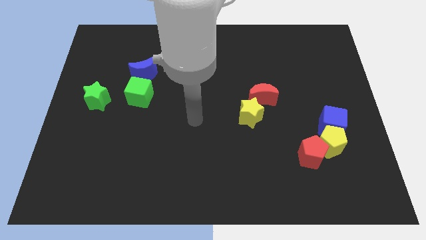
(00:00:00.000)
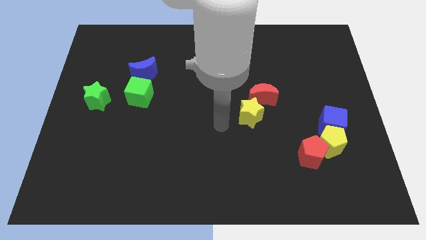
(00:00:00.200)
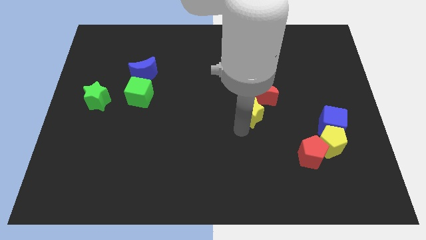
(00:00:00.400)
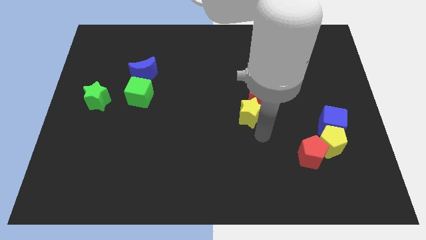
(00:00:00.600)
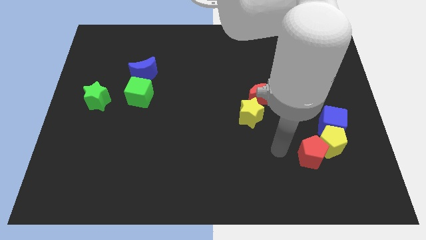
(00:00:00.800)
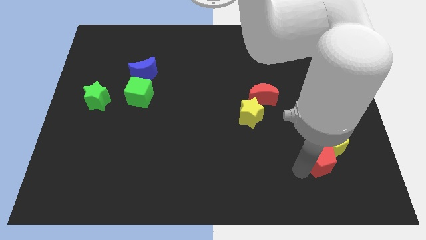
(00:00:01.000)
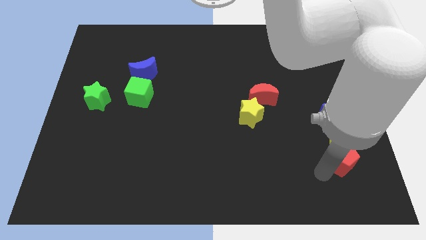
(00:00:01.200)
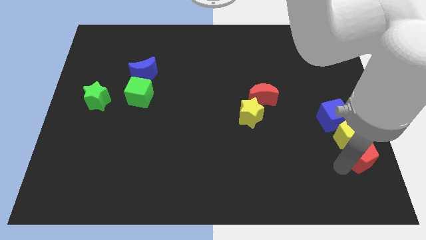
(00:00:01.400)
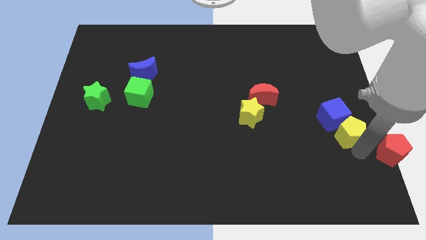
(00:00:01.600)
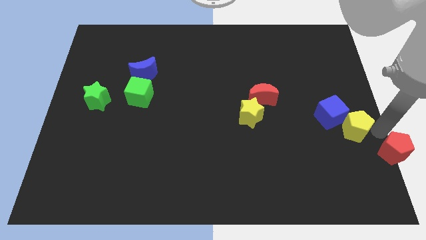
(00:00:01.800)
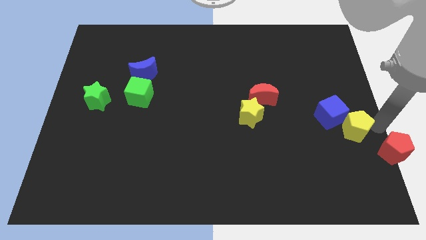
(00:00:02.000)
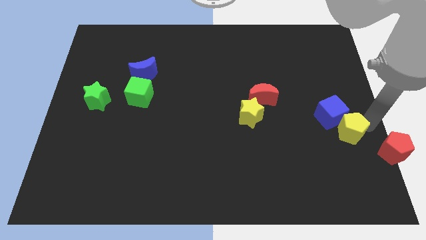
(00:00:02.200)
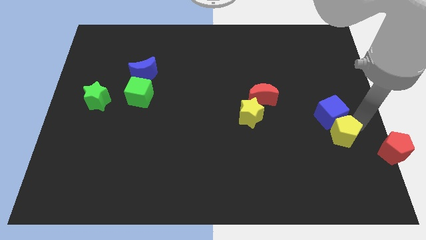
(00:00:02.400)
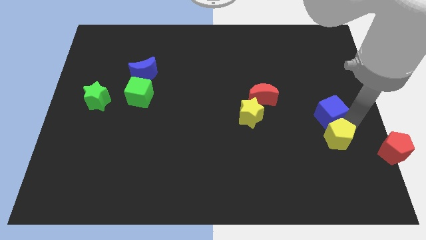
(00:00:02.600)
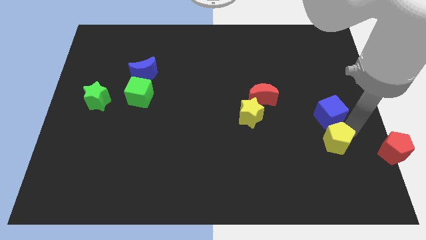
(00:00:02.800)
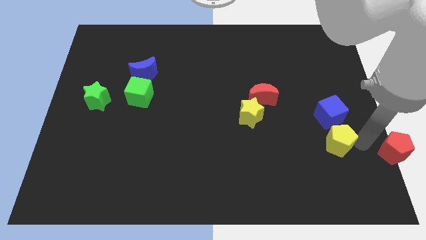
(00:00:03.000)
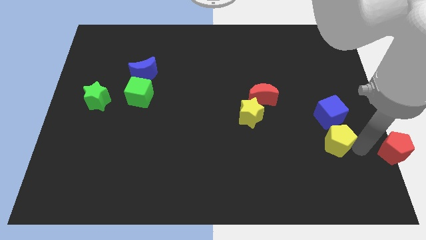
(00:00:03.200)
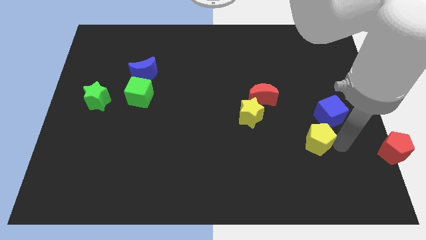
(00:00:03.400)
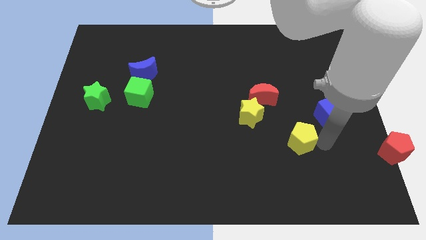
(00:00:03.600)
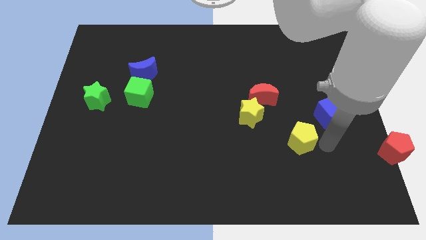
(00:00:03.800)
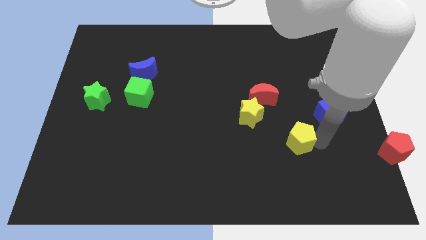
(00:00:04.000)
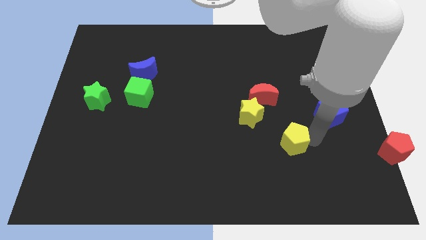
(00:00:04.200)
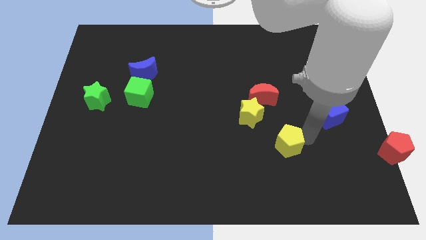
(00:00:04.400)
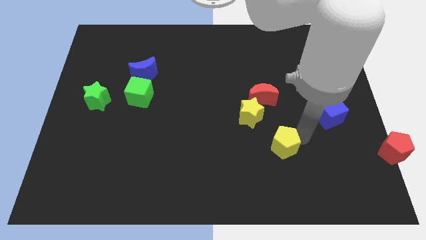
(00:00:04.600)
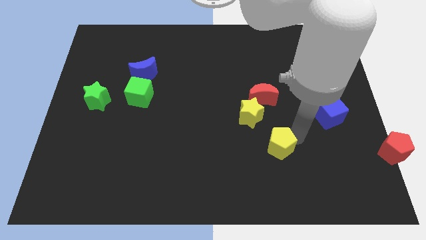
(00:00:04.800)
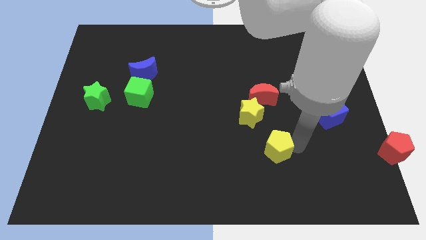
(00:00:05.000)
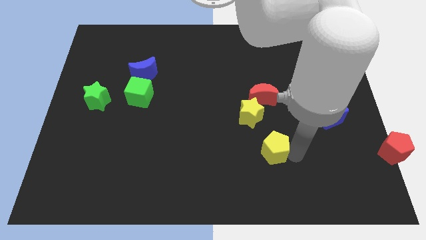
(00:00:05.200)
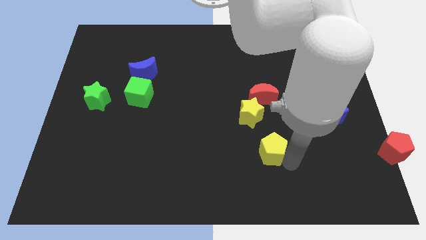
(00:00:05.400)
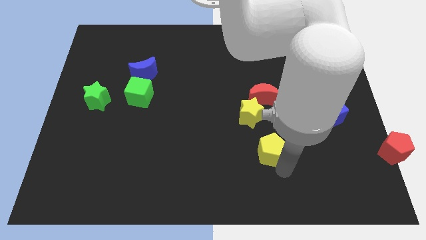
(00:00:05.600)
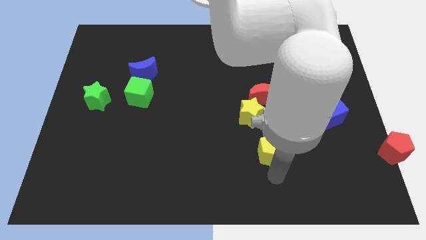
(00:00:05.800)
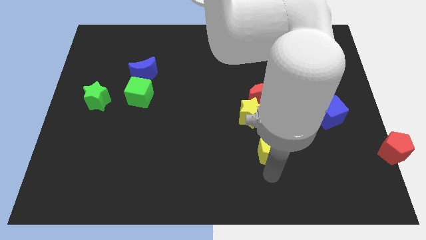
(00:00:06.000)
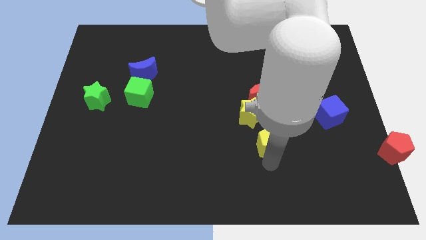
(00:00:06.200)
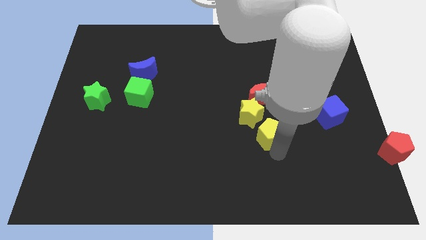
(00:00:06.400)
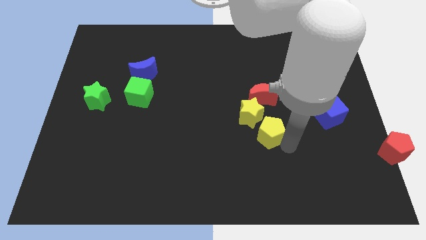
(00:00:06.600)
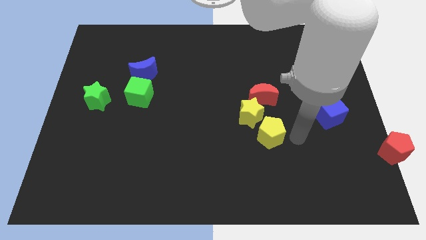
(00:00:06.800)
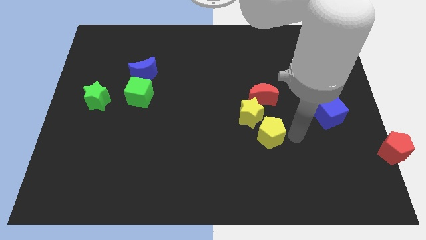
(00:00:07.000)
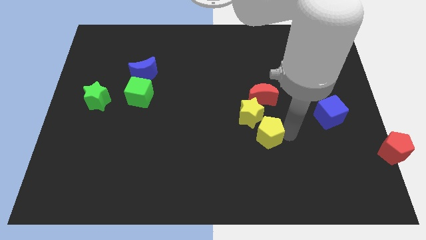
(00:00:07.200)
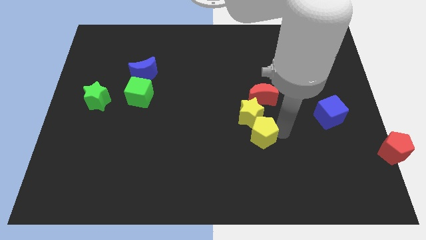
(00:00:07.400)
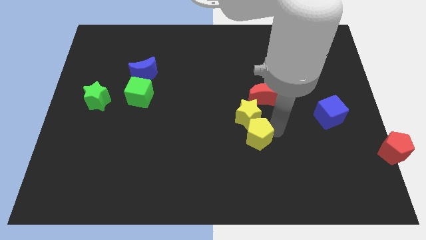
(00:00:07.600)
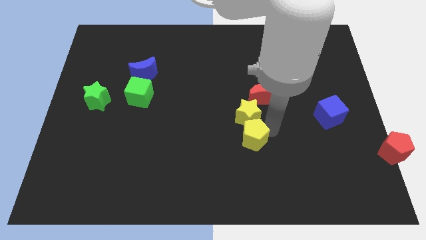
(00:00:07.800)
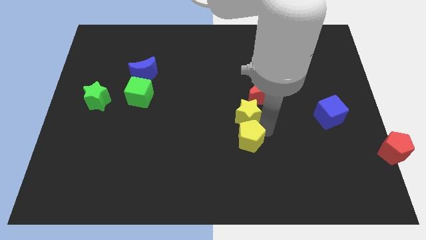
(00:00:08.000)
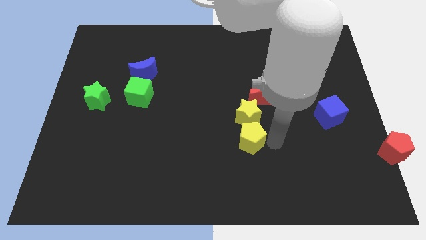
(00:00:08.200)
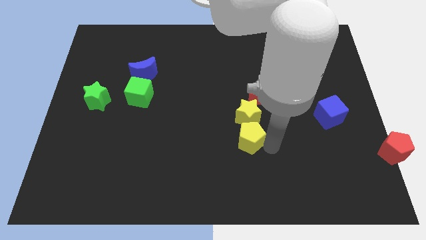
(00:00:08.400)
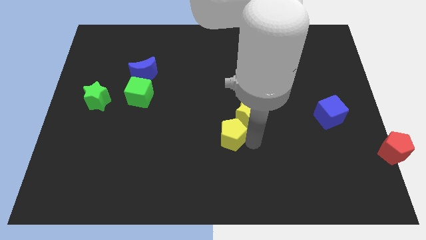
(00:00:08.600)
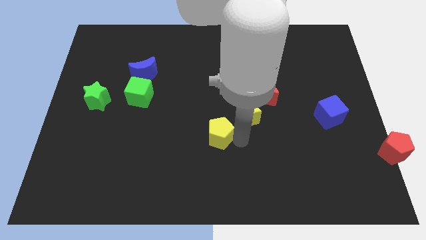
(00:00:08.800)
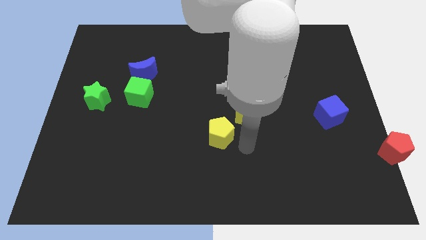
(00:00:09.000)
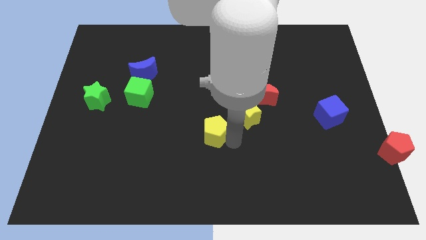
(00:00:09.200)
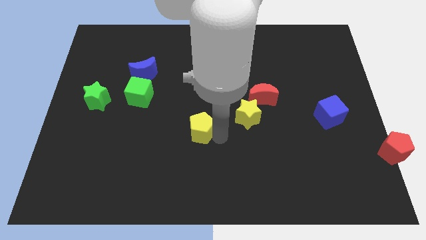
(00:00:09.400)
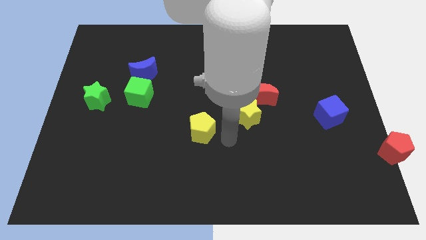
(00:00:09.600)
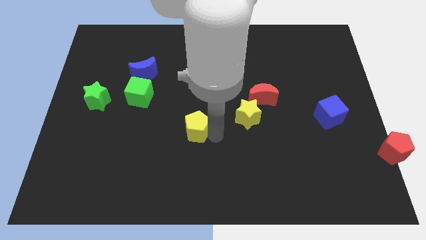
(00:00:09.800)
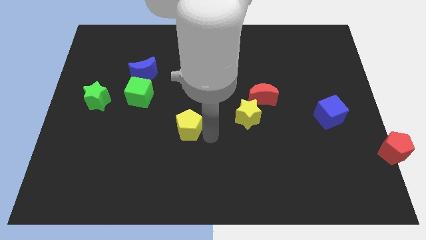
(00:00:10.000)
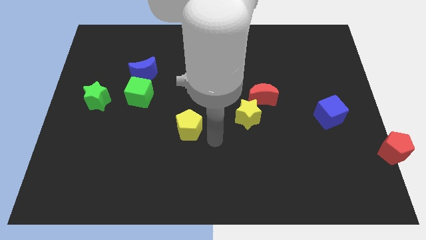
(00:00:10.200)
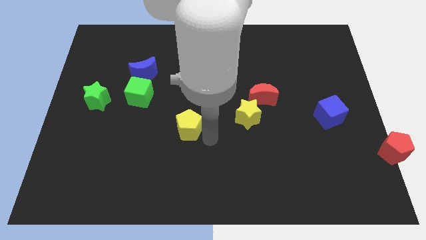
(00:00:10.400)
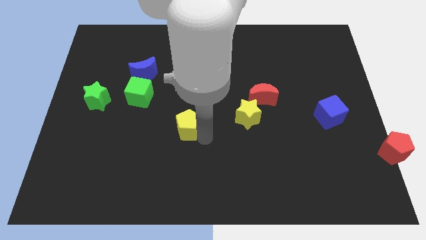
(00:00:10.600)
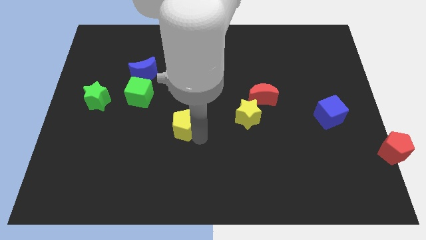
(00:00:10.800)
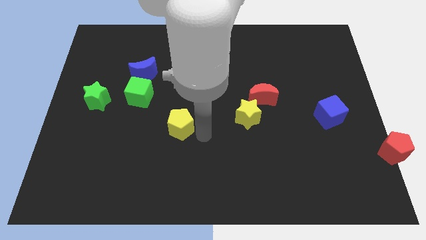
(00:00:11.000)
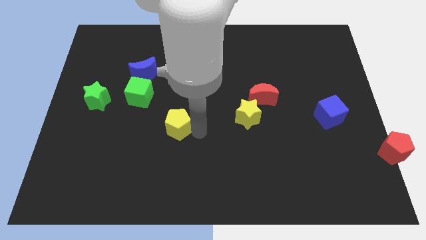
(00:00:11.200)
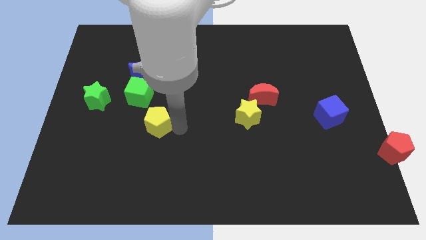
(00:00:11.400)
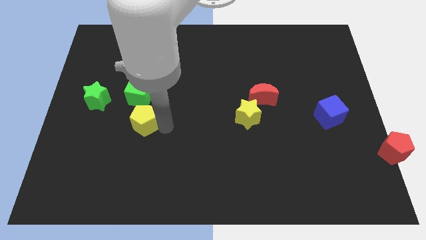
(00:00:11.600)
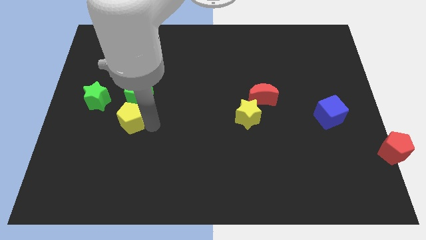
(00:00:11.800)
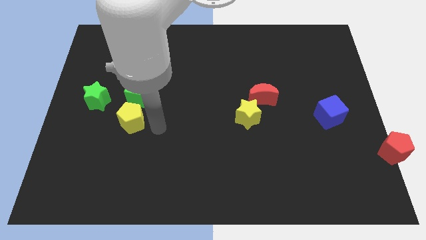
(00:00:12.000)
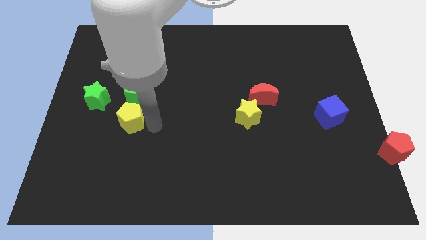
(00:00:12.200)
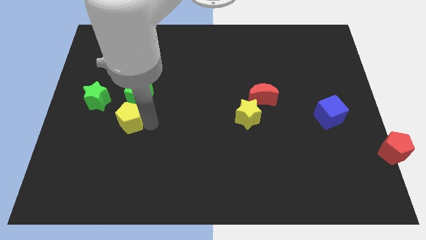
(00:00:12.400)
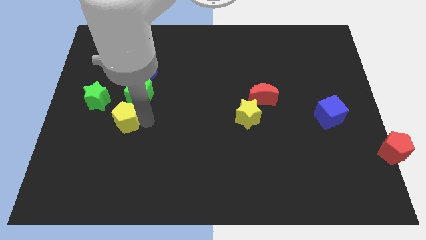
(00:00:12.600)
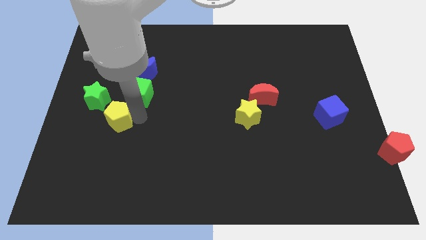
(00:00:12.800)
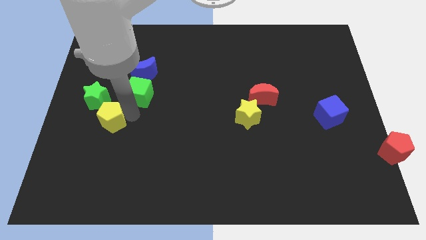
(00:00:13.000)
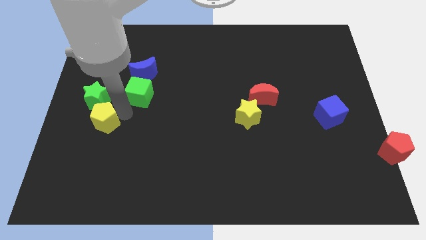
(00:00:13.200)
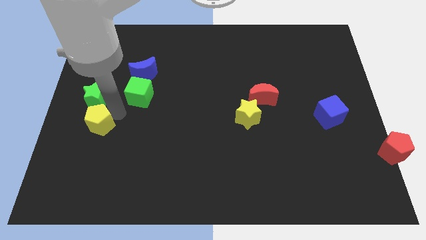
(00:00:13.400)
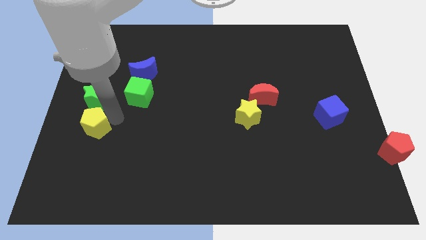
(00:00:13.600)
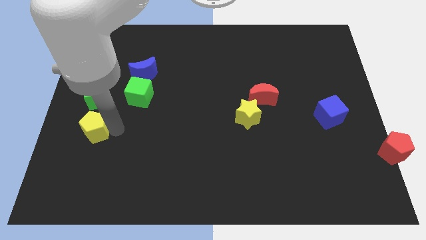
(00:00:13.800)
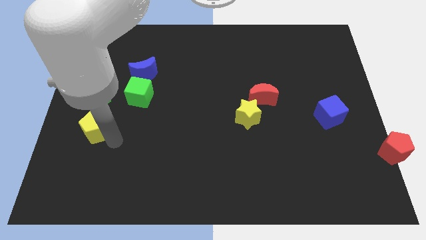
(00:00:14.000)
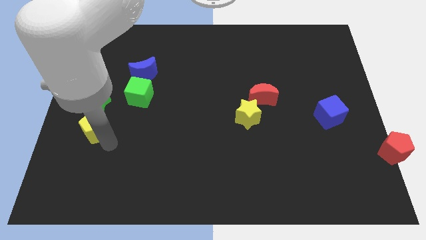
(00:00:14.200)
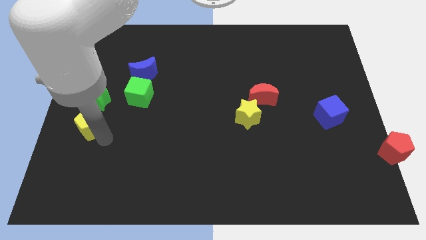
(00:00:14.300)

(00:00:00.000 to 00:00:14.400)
slide the yellow pentagon to the left side of the board
